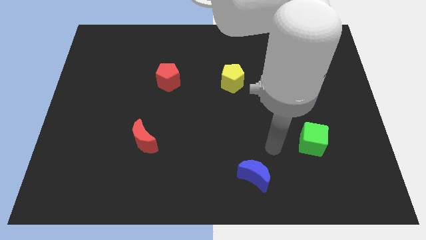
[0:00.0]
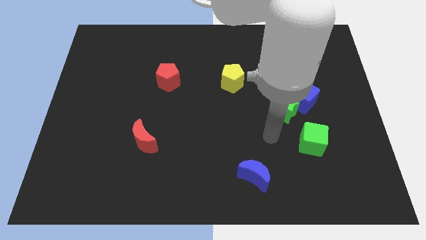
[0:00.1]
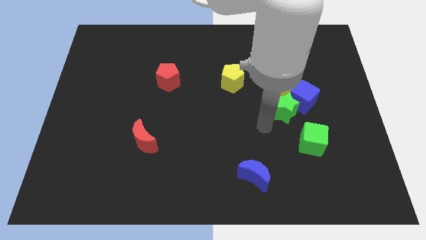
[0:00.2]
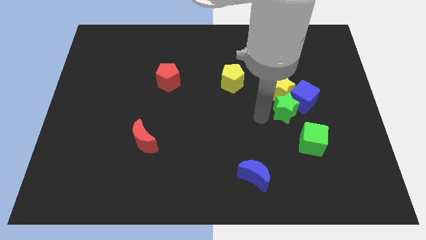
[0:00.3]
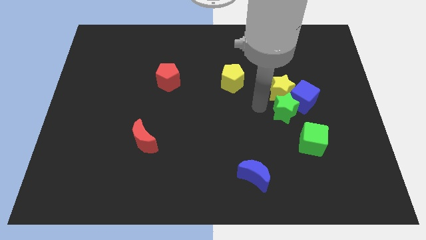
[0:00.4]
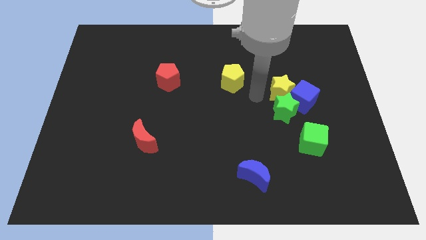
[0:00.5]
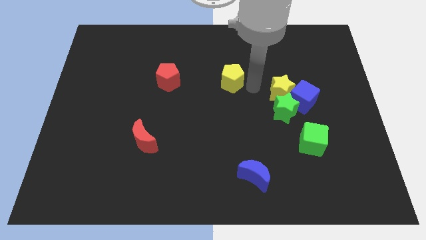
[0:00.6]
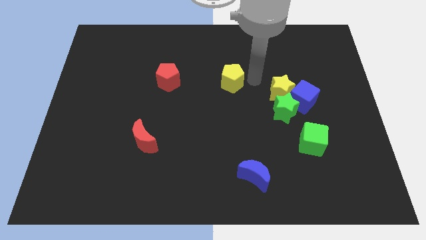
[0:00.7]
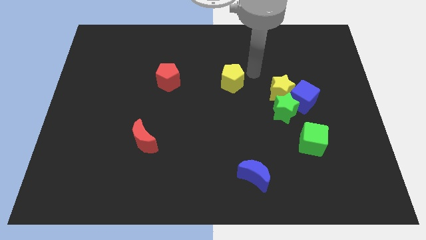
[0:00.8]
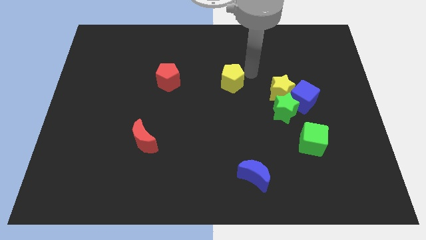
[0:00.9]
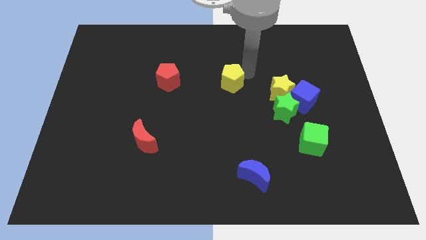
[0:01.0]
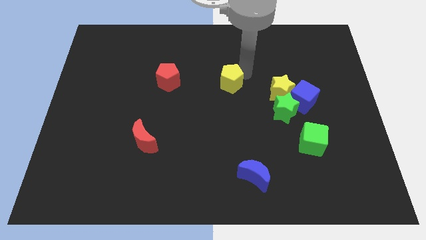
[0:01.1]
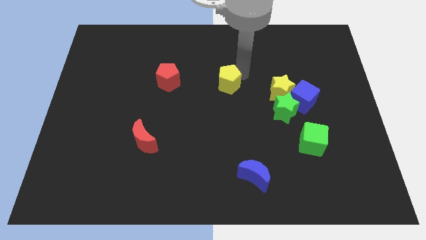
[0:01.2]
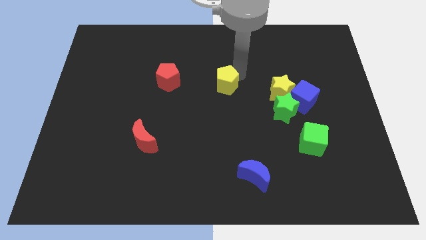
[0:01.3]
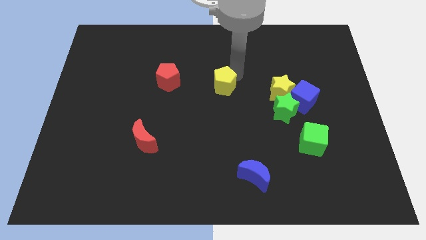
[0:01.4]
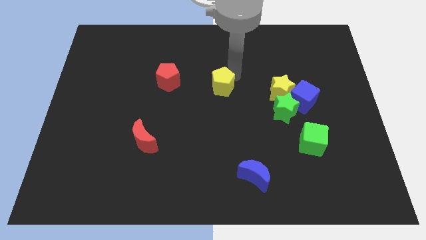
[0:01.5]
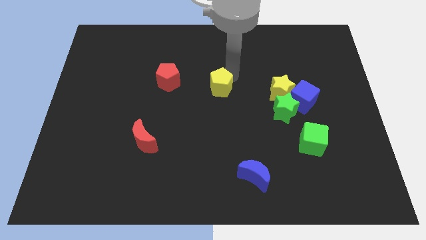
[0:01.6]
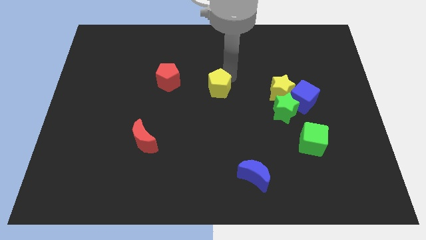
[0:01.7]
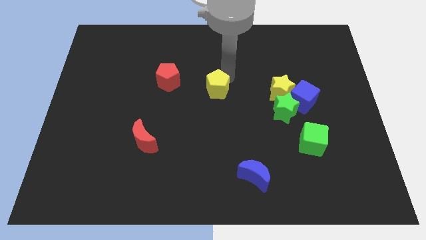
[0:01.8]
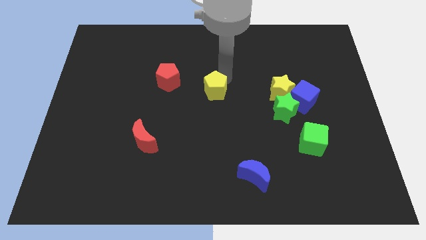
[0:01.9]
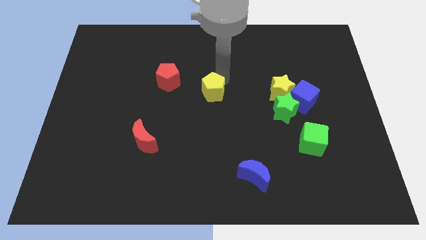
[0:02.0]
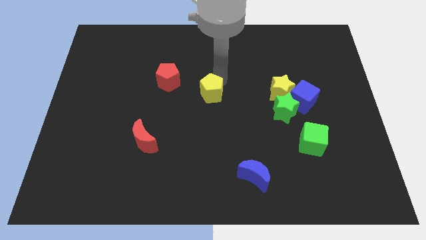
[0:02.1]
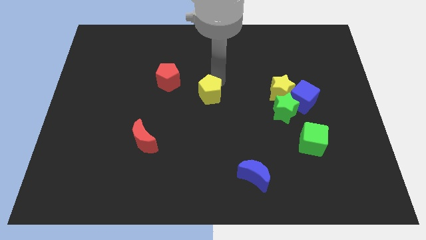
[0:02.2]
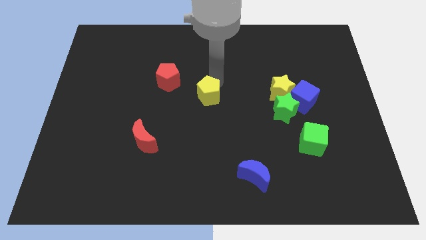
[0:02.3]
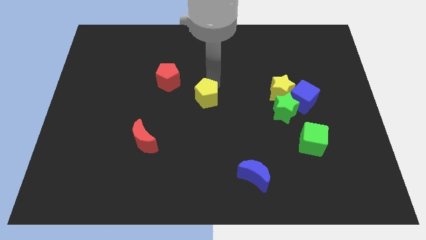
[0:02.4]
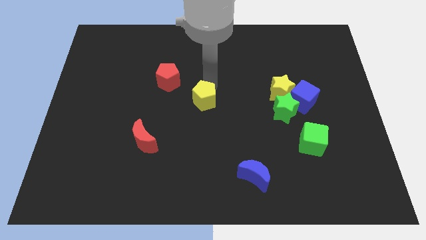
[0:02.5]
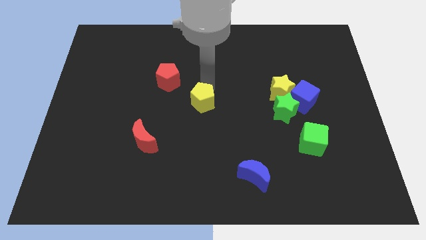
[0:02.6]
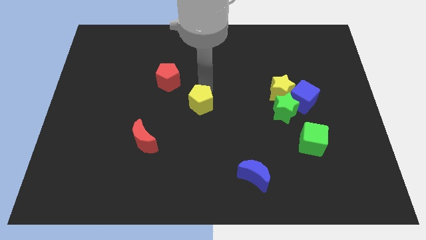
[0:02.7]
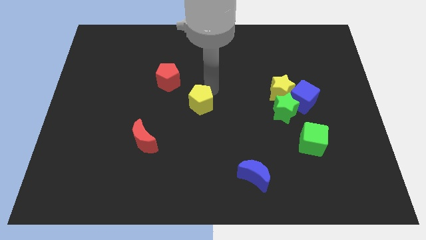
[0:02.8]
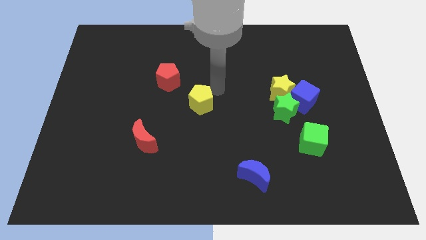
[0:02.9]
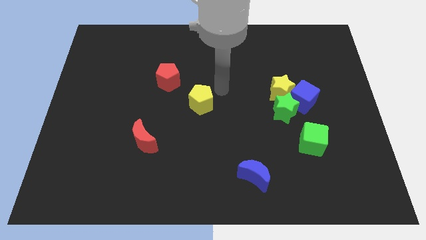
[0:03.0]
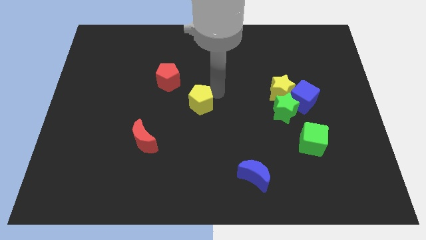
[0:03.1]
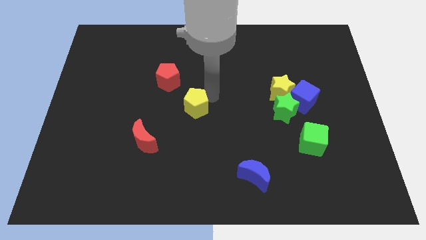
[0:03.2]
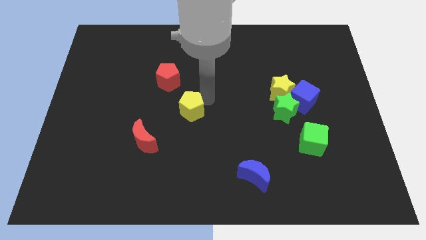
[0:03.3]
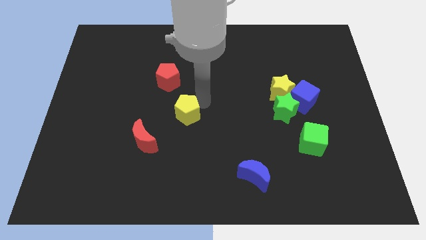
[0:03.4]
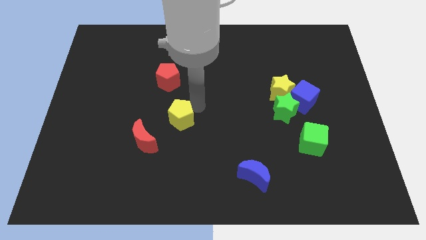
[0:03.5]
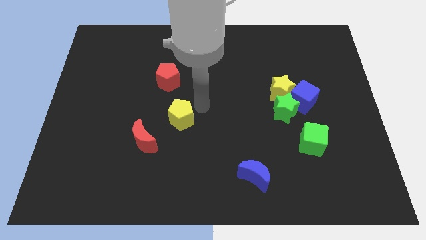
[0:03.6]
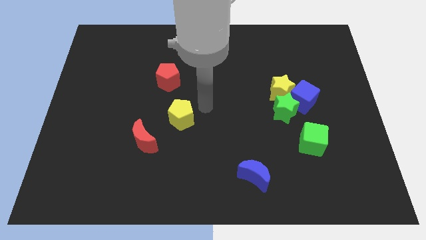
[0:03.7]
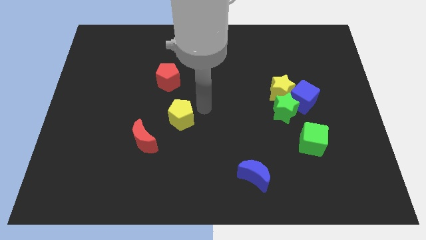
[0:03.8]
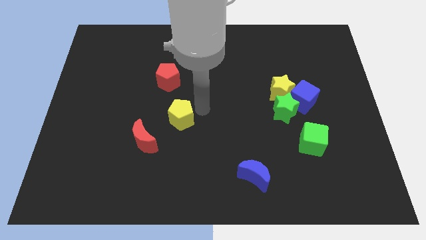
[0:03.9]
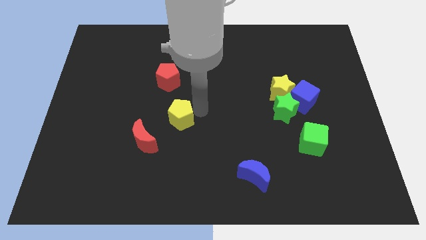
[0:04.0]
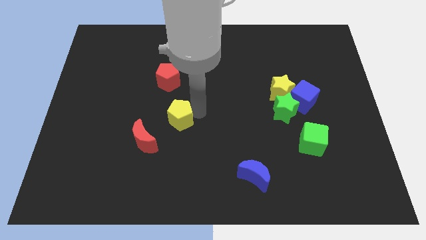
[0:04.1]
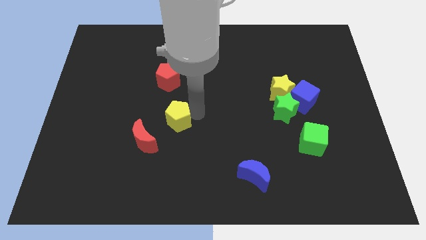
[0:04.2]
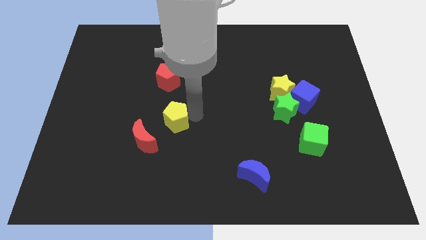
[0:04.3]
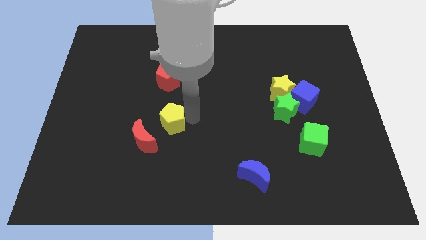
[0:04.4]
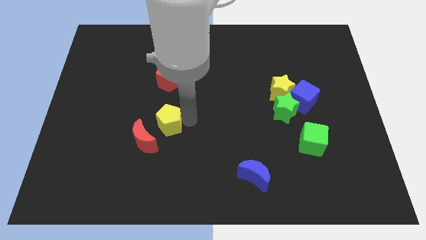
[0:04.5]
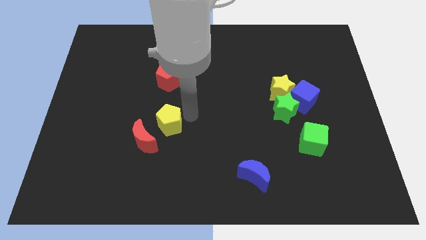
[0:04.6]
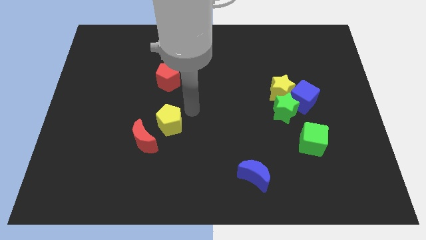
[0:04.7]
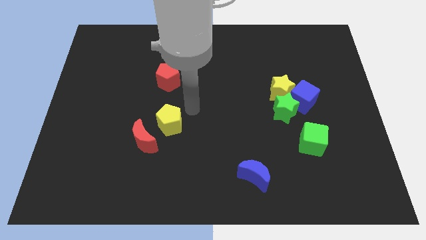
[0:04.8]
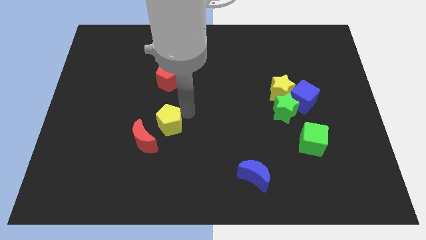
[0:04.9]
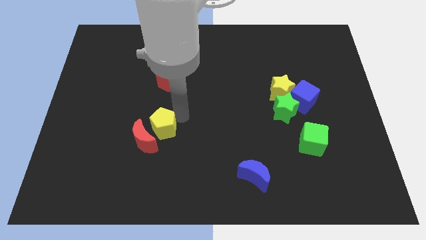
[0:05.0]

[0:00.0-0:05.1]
push the yellow pentagon to the red moon

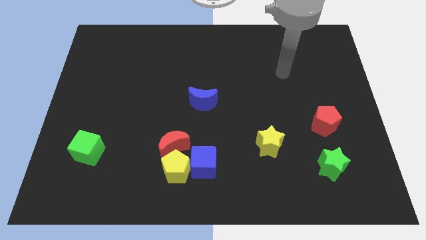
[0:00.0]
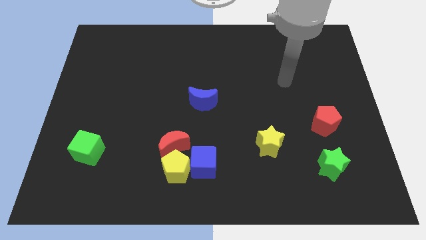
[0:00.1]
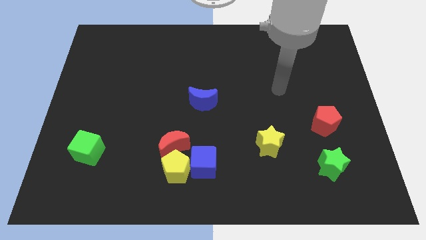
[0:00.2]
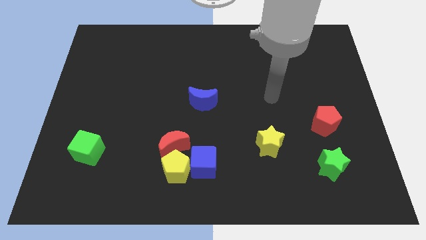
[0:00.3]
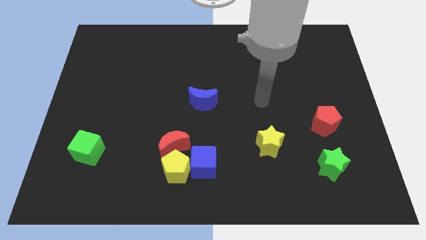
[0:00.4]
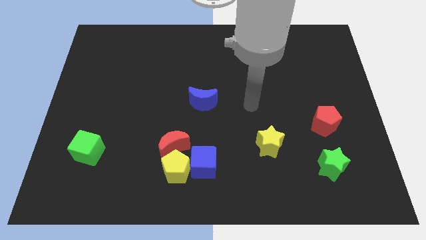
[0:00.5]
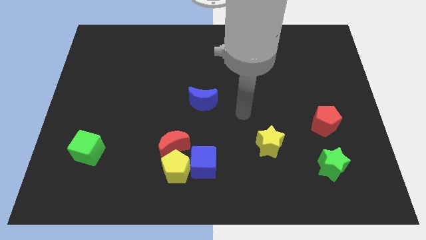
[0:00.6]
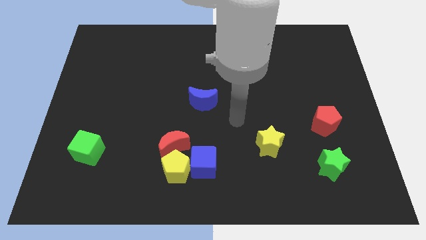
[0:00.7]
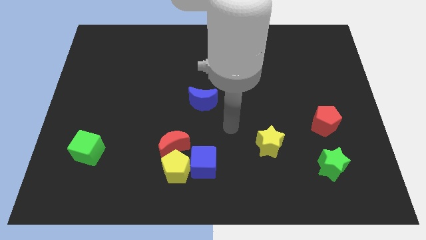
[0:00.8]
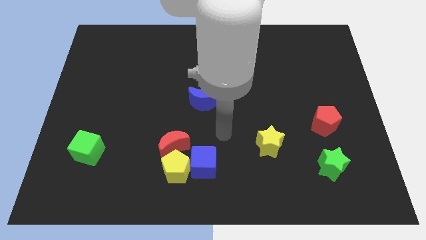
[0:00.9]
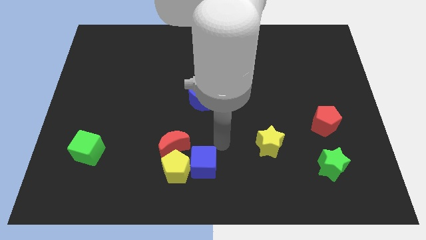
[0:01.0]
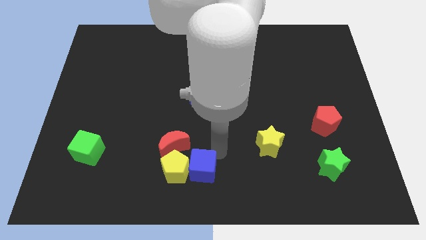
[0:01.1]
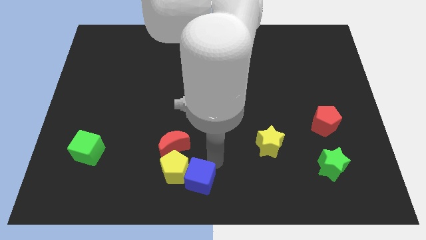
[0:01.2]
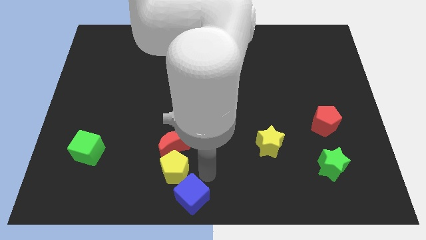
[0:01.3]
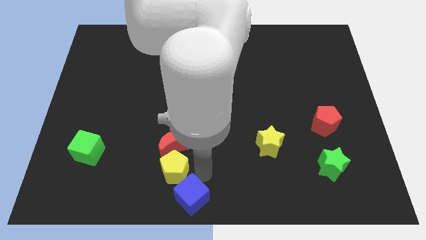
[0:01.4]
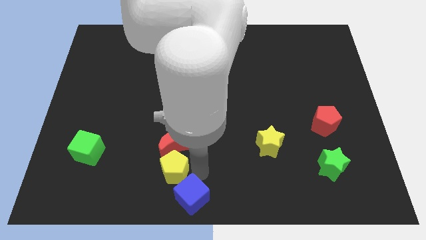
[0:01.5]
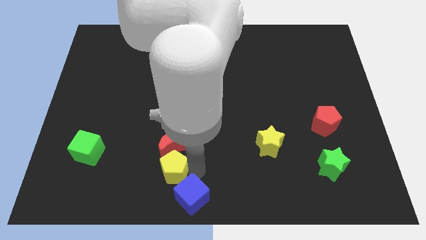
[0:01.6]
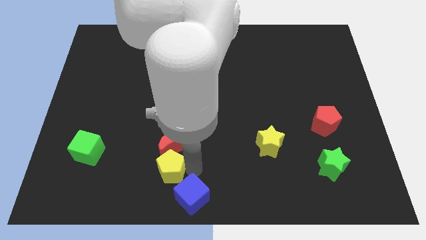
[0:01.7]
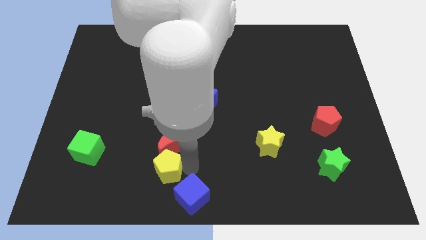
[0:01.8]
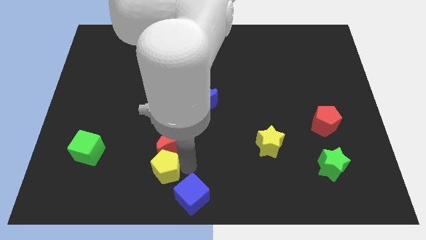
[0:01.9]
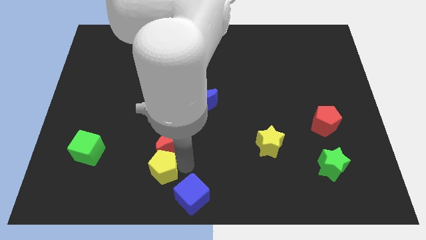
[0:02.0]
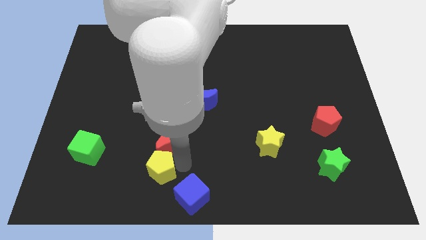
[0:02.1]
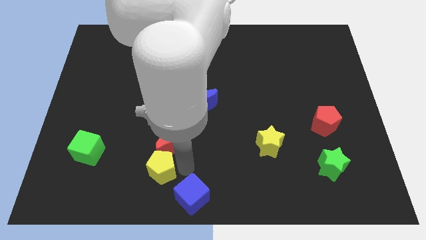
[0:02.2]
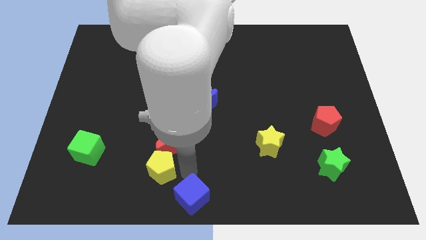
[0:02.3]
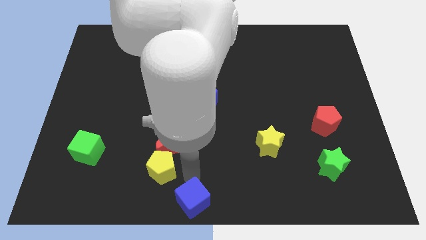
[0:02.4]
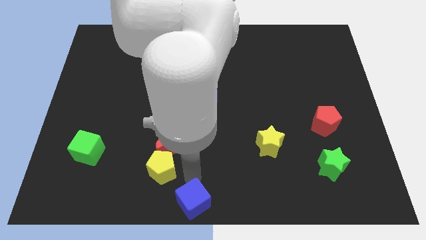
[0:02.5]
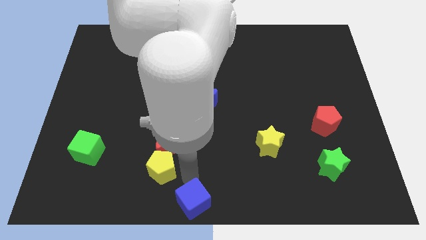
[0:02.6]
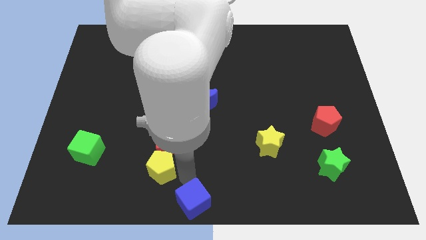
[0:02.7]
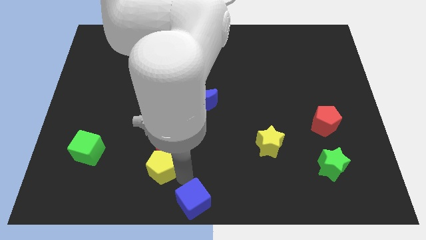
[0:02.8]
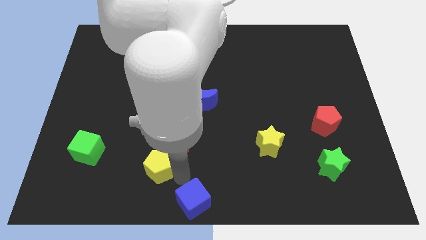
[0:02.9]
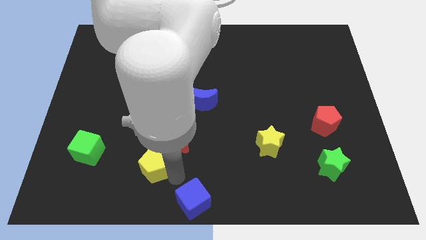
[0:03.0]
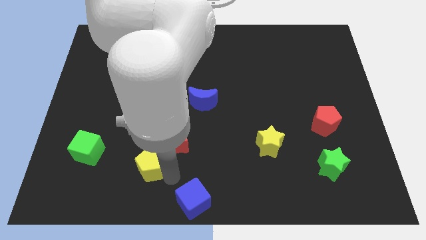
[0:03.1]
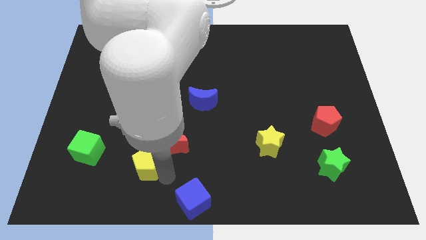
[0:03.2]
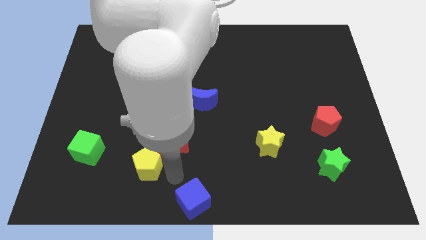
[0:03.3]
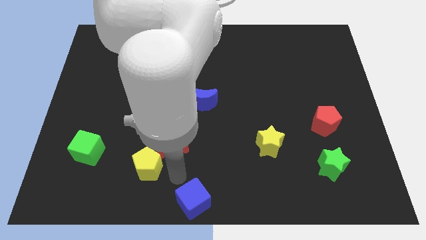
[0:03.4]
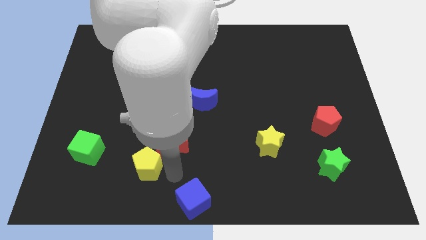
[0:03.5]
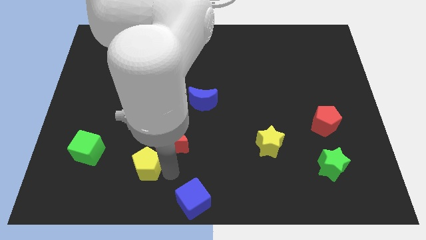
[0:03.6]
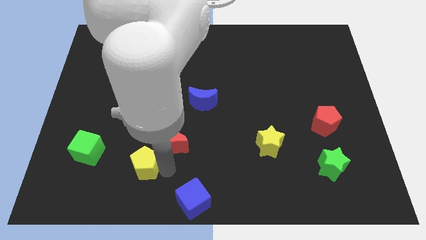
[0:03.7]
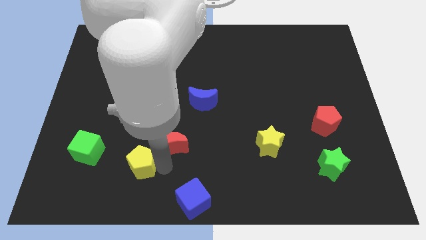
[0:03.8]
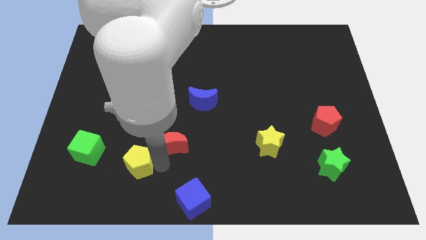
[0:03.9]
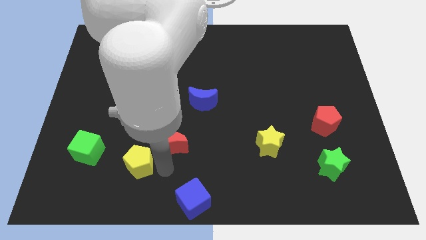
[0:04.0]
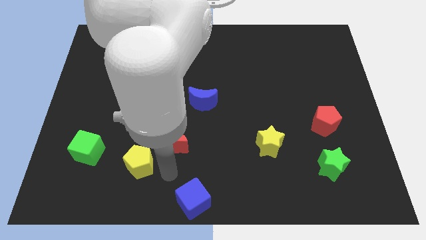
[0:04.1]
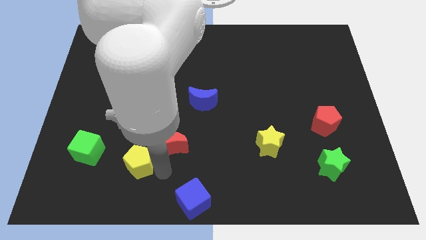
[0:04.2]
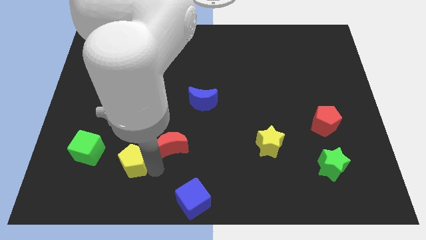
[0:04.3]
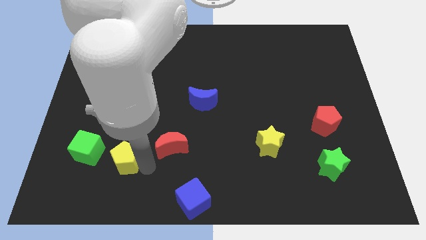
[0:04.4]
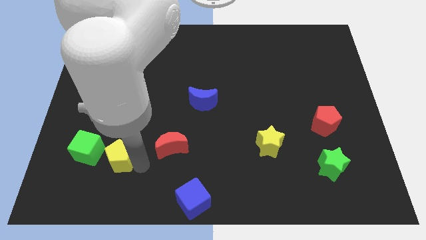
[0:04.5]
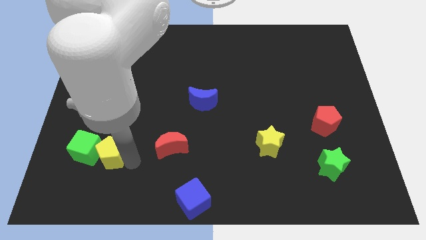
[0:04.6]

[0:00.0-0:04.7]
put the yellow pentagon to the green cube
